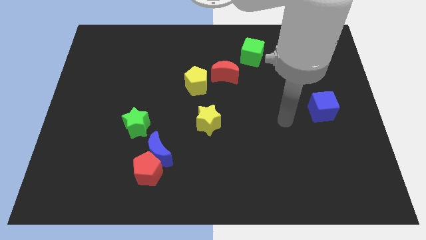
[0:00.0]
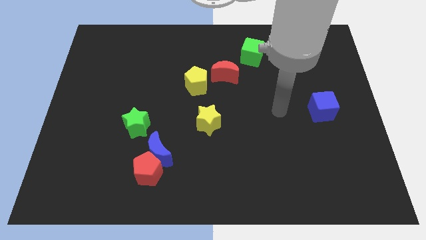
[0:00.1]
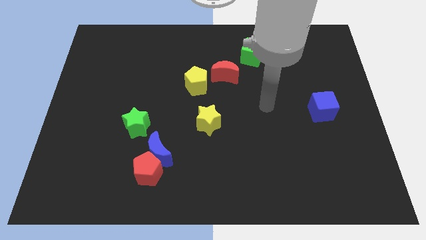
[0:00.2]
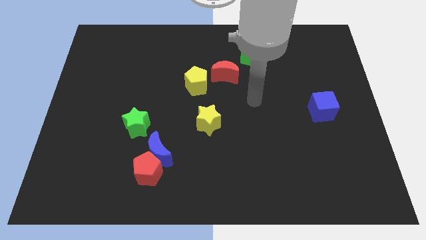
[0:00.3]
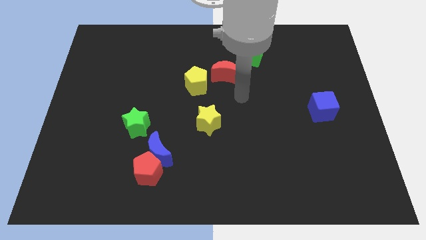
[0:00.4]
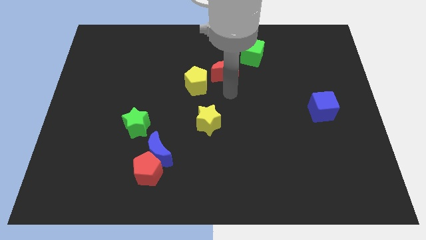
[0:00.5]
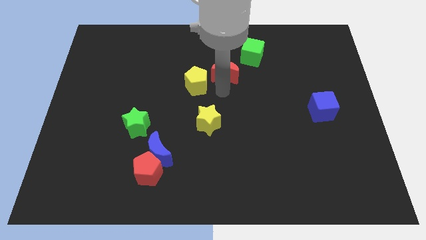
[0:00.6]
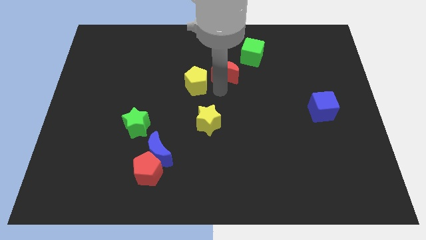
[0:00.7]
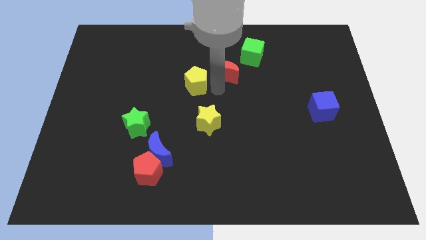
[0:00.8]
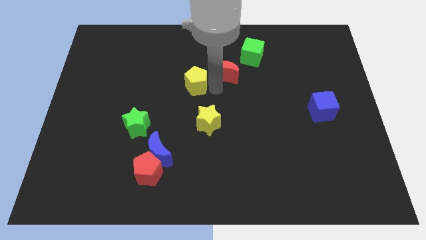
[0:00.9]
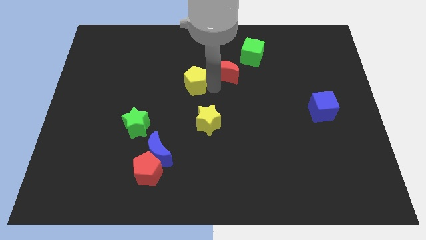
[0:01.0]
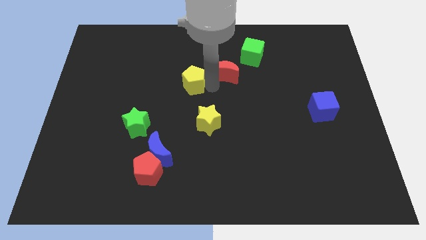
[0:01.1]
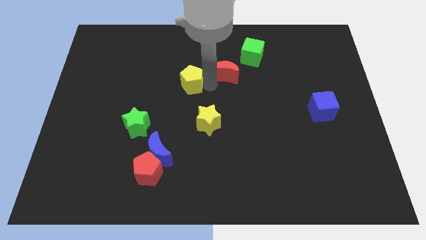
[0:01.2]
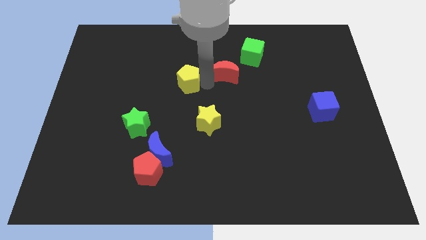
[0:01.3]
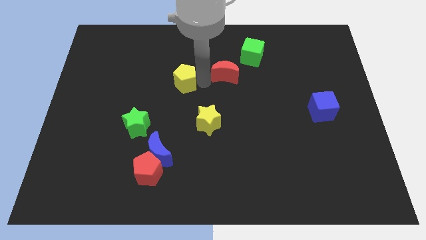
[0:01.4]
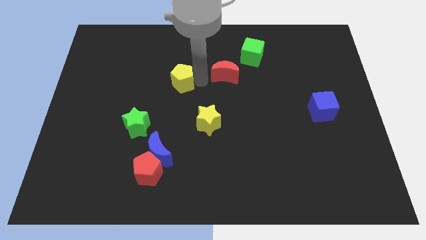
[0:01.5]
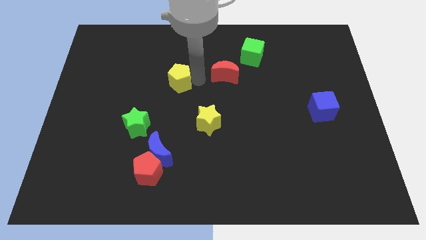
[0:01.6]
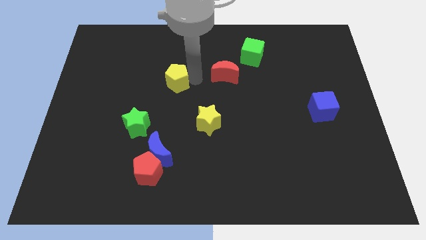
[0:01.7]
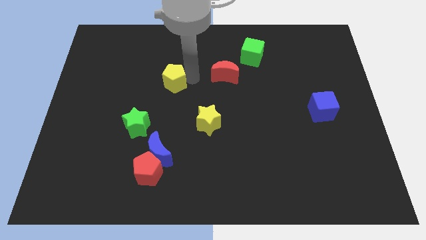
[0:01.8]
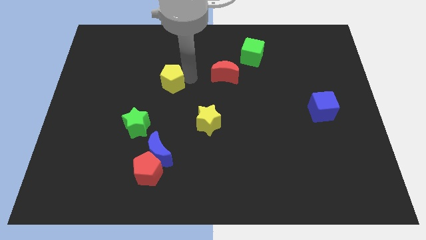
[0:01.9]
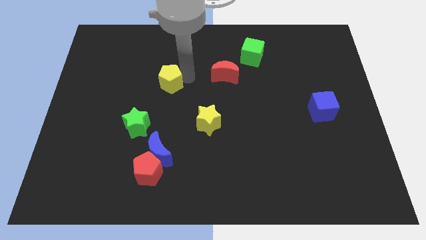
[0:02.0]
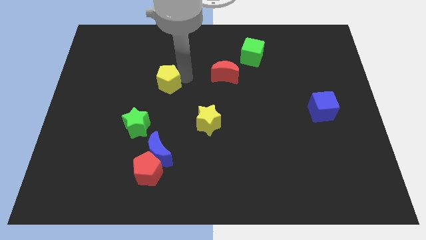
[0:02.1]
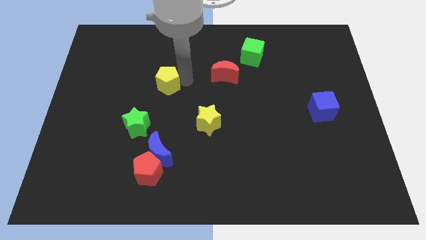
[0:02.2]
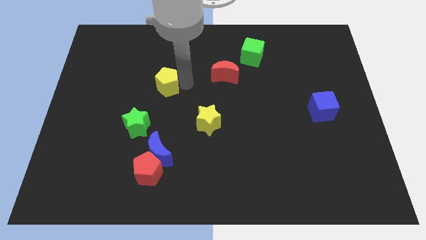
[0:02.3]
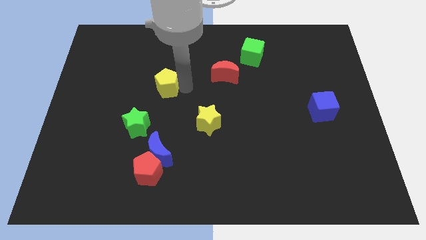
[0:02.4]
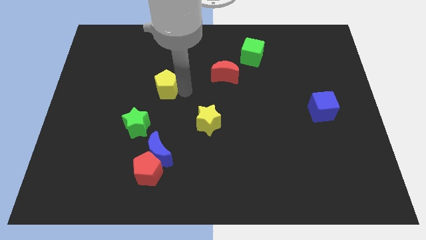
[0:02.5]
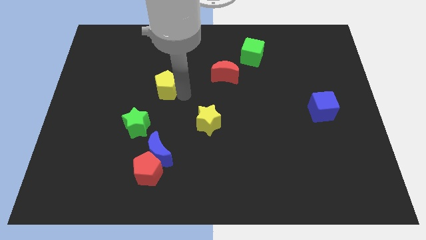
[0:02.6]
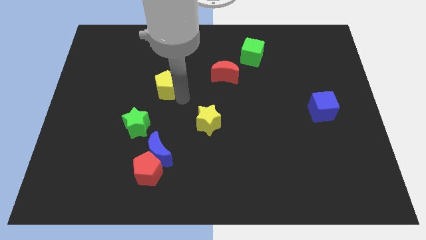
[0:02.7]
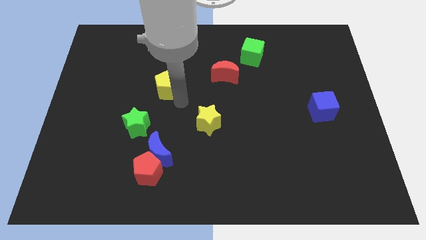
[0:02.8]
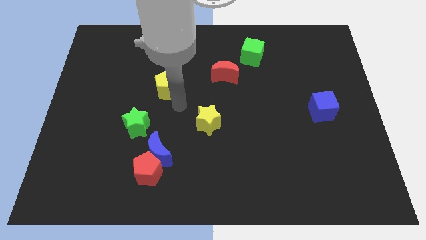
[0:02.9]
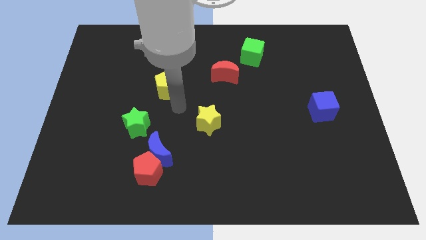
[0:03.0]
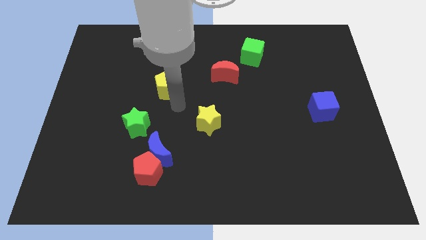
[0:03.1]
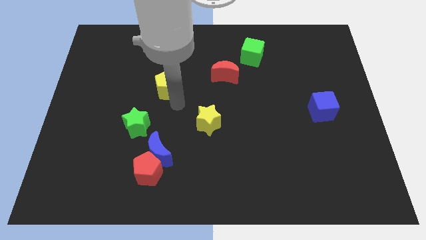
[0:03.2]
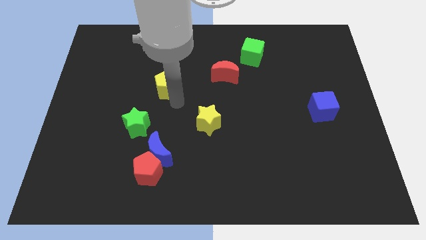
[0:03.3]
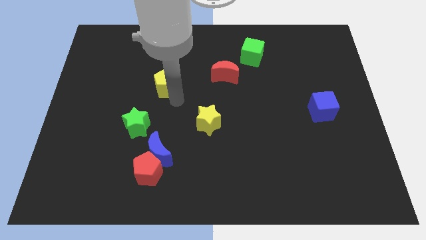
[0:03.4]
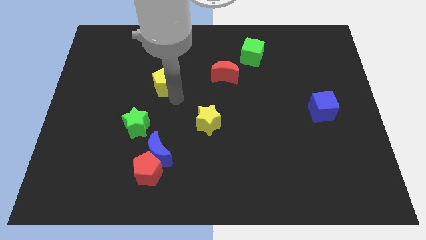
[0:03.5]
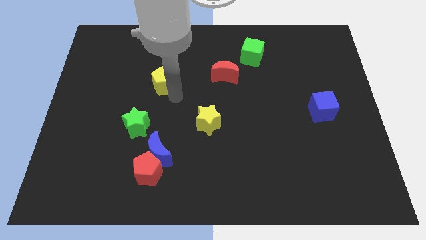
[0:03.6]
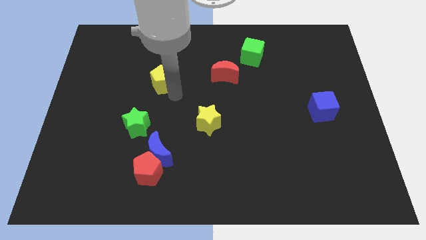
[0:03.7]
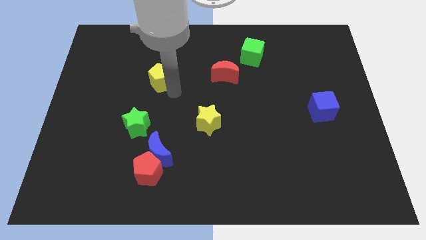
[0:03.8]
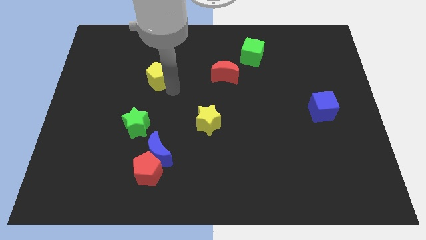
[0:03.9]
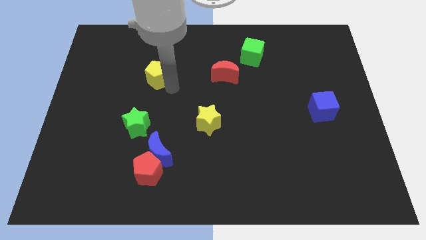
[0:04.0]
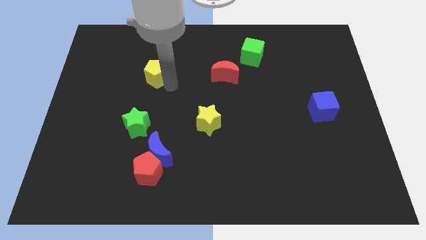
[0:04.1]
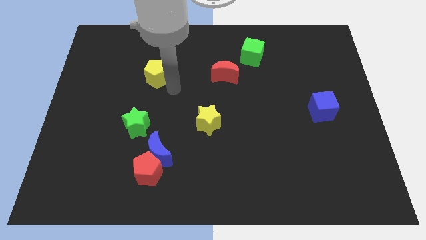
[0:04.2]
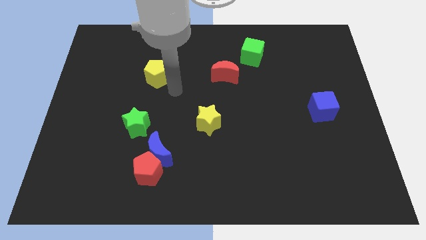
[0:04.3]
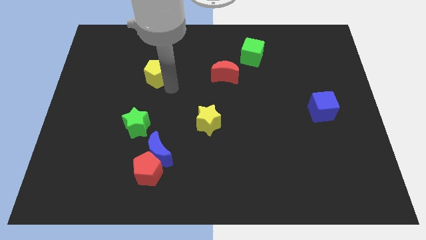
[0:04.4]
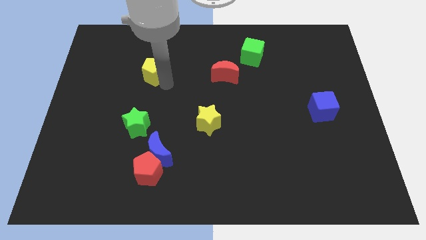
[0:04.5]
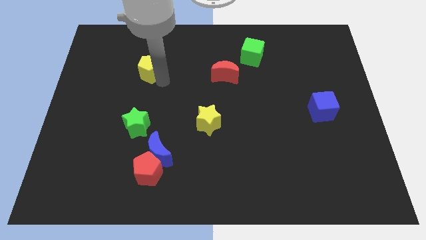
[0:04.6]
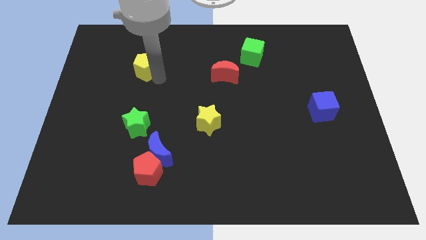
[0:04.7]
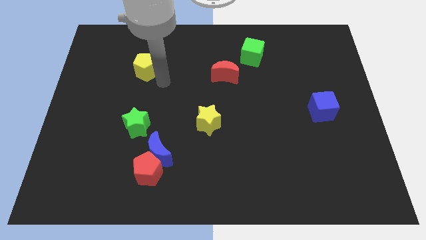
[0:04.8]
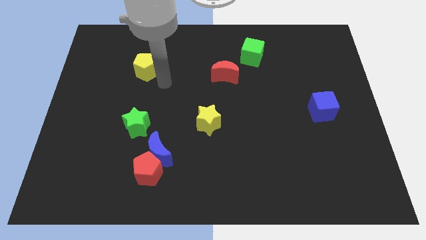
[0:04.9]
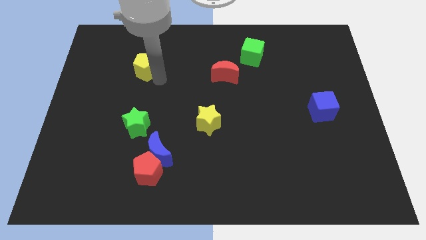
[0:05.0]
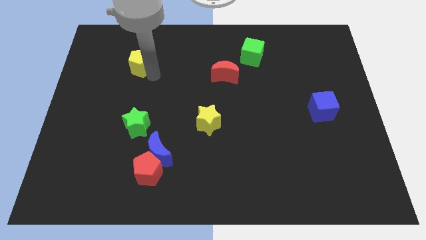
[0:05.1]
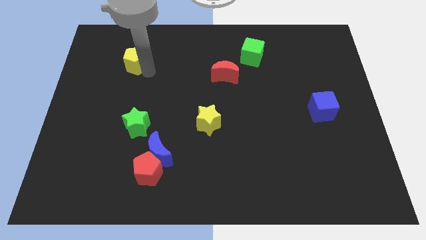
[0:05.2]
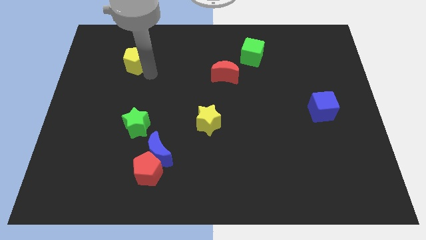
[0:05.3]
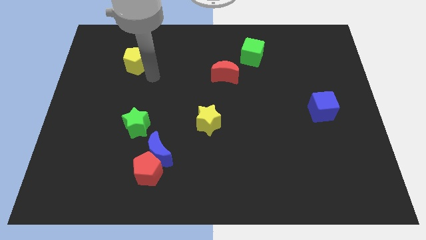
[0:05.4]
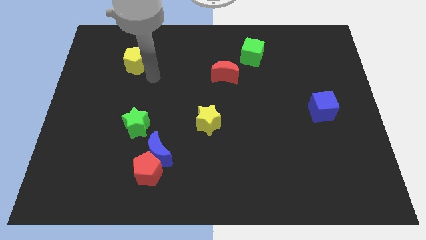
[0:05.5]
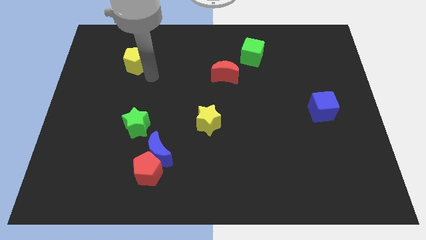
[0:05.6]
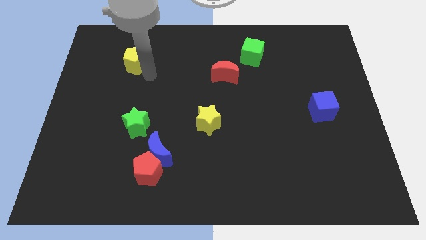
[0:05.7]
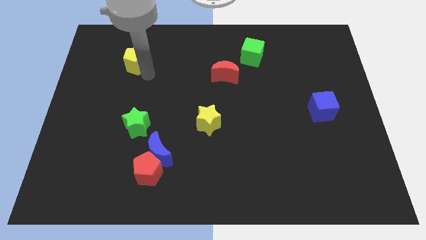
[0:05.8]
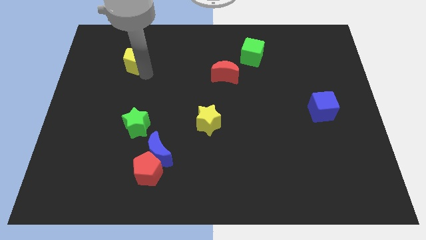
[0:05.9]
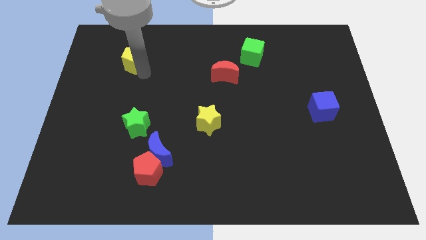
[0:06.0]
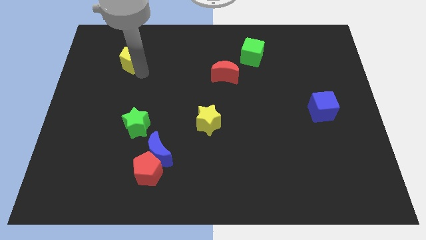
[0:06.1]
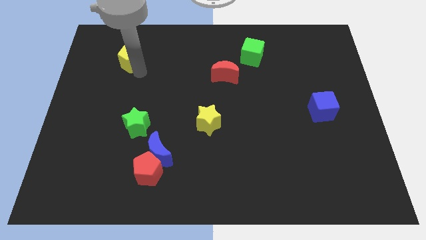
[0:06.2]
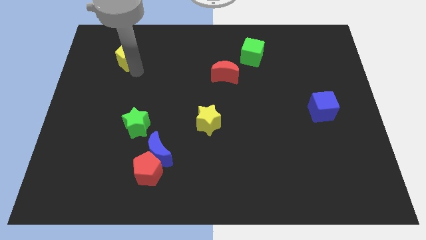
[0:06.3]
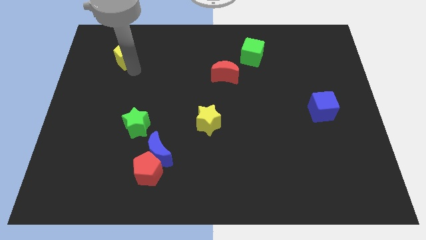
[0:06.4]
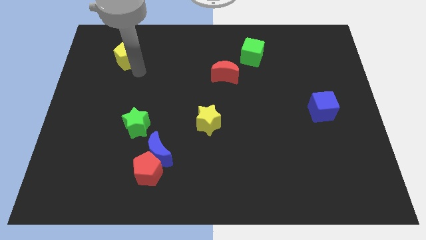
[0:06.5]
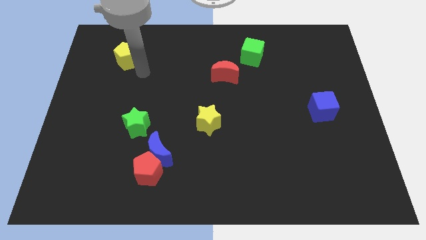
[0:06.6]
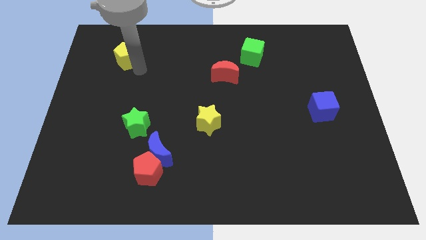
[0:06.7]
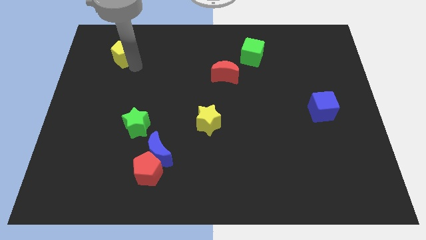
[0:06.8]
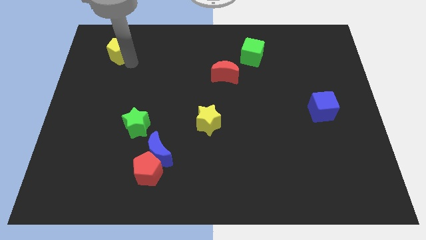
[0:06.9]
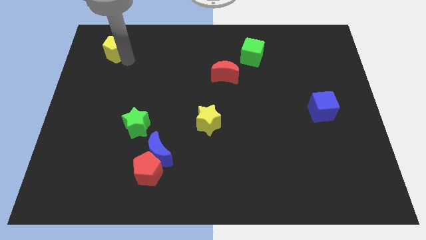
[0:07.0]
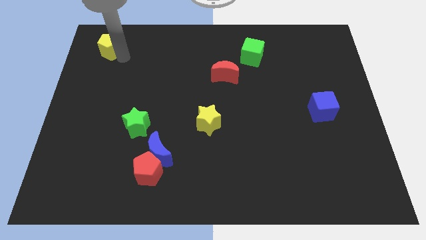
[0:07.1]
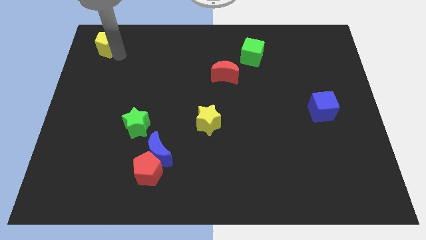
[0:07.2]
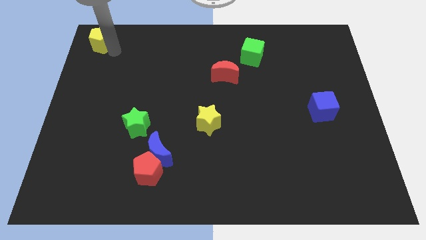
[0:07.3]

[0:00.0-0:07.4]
move the yellow pentagon to the upper left corner
